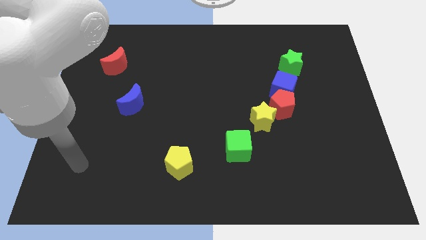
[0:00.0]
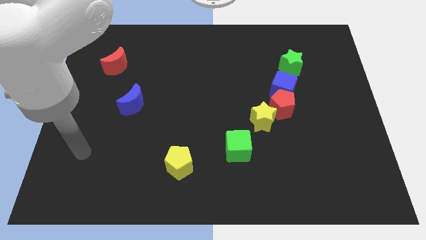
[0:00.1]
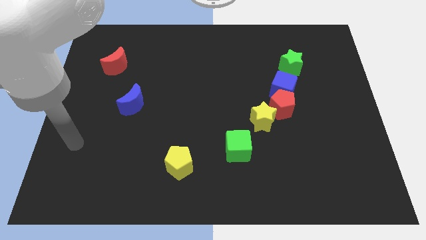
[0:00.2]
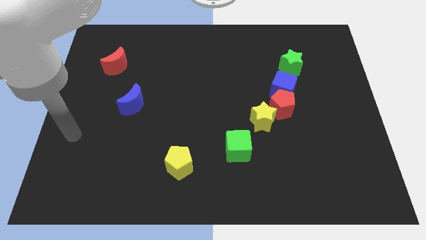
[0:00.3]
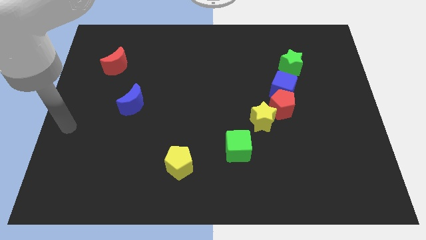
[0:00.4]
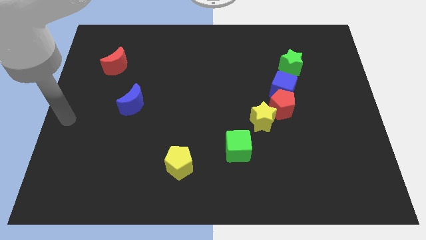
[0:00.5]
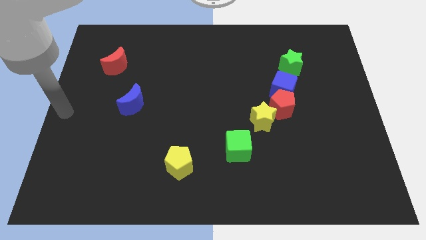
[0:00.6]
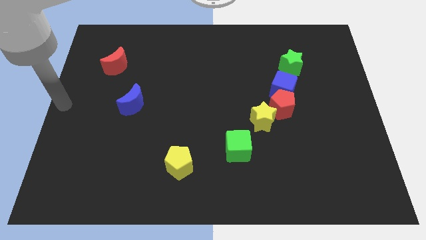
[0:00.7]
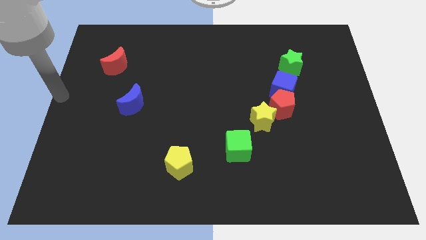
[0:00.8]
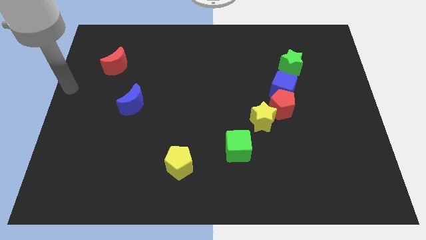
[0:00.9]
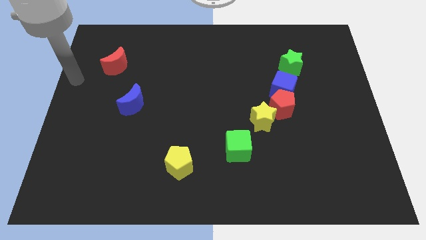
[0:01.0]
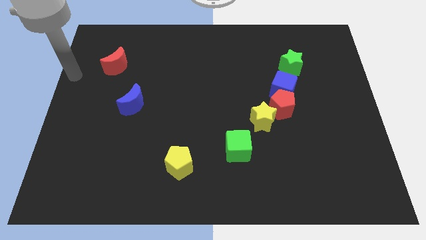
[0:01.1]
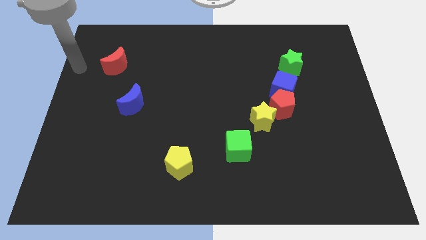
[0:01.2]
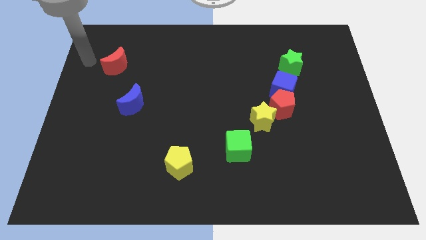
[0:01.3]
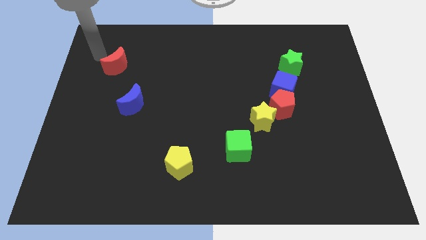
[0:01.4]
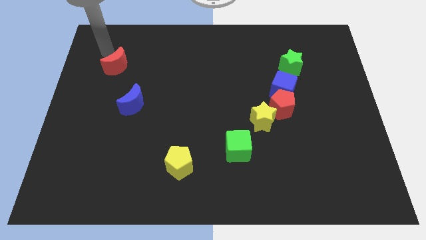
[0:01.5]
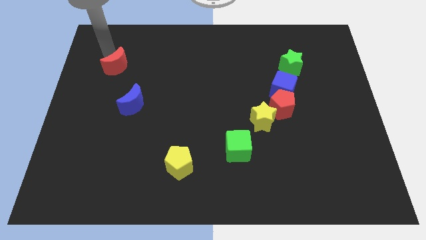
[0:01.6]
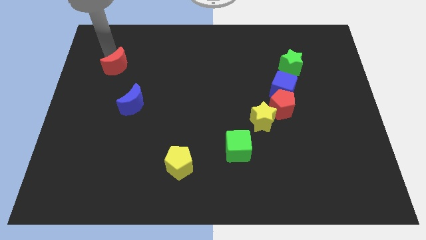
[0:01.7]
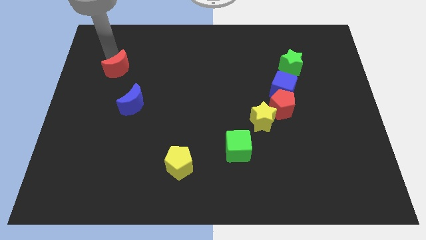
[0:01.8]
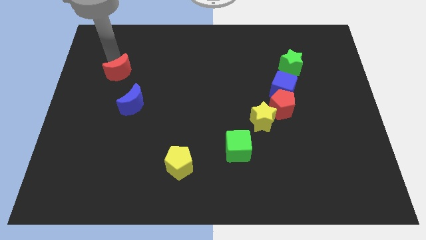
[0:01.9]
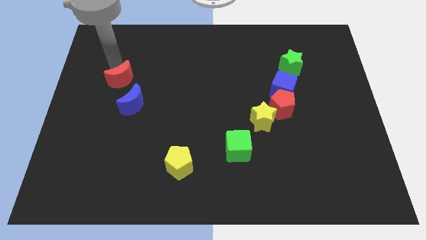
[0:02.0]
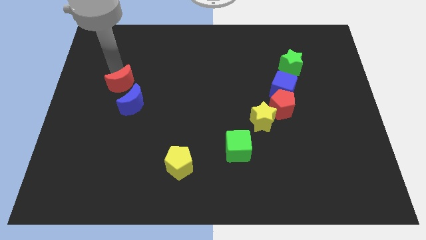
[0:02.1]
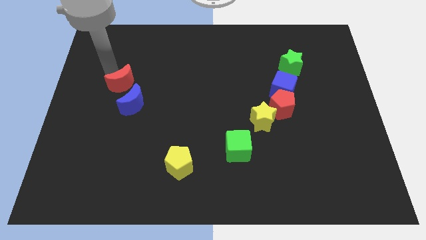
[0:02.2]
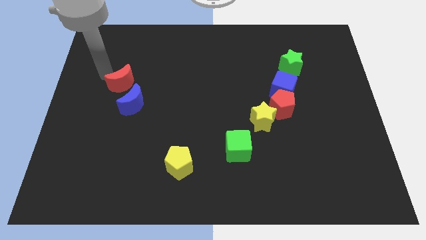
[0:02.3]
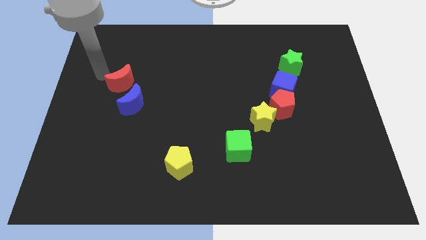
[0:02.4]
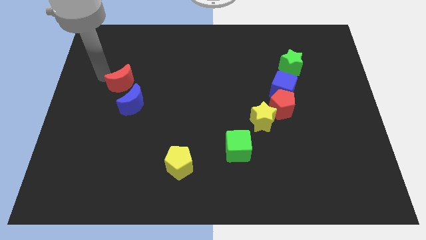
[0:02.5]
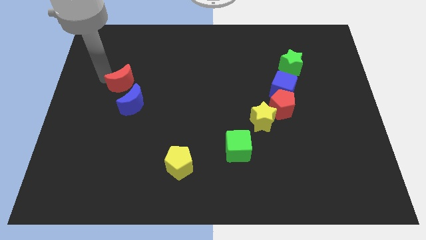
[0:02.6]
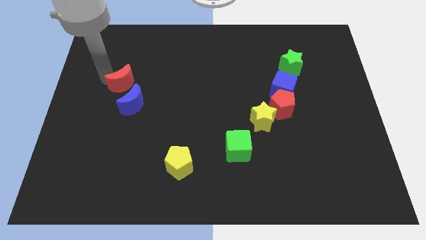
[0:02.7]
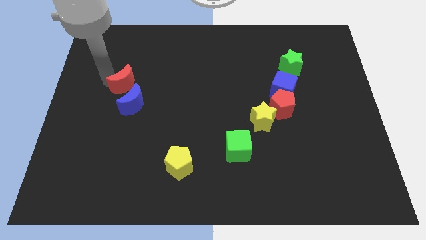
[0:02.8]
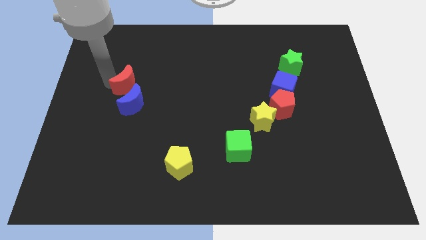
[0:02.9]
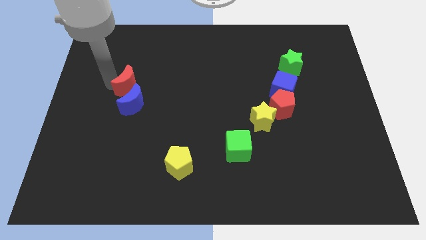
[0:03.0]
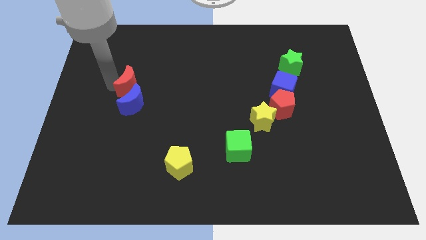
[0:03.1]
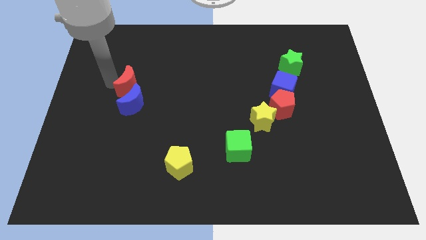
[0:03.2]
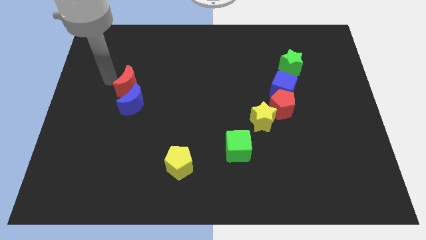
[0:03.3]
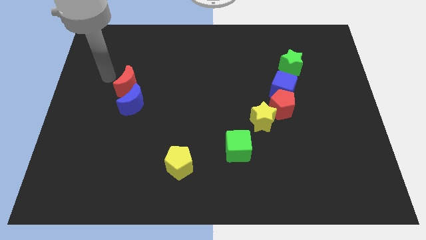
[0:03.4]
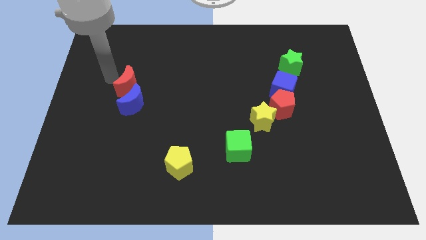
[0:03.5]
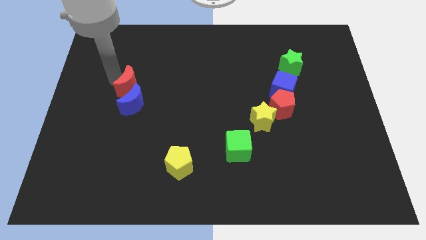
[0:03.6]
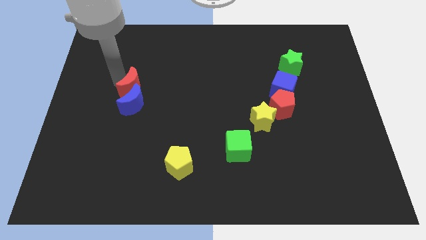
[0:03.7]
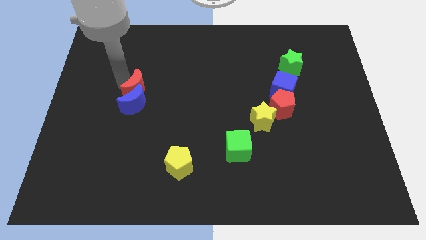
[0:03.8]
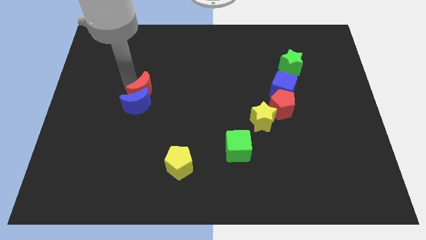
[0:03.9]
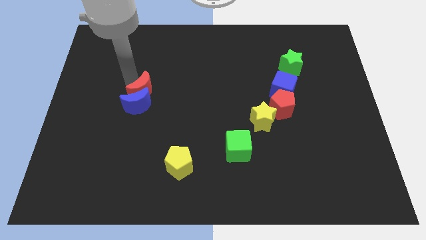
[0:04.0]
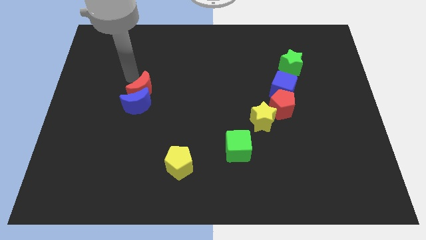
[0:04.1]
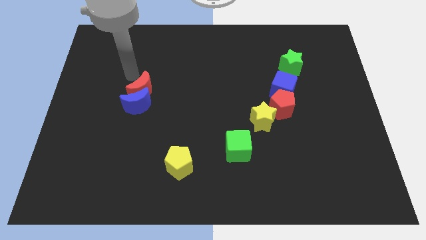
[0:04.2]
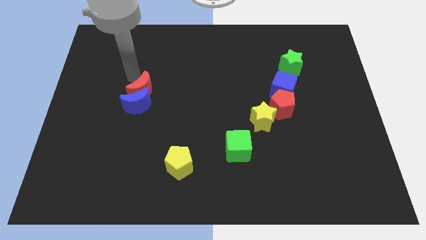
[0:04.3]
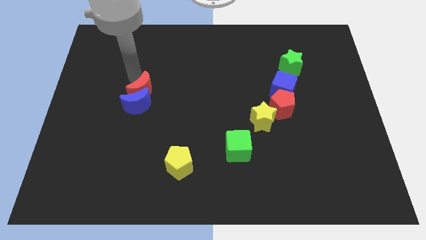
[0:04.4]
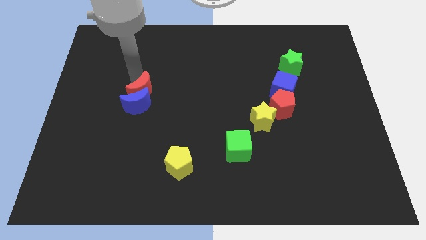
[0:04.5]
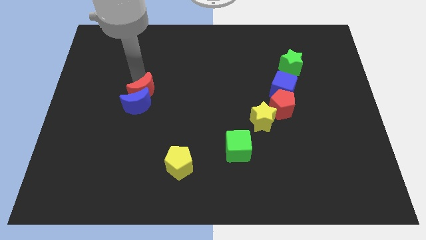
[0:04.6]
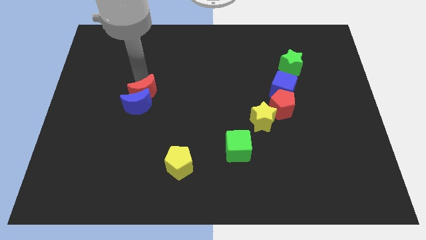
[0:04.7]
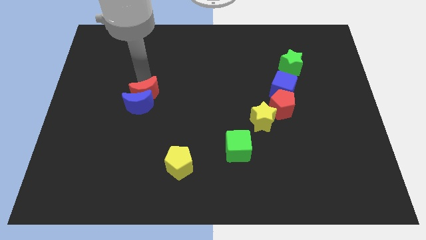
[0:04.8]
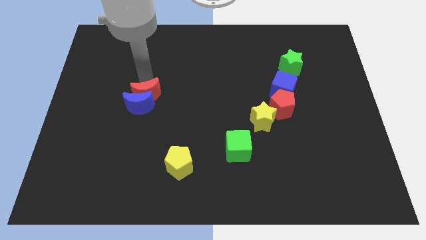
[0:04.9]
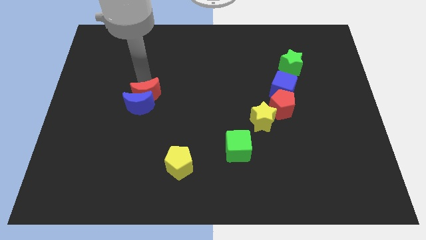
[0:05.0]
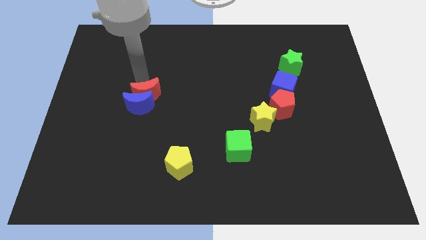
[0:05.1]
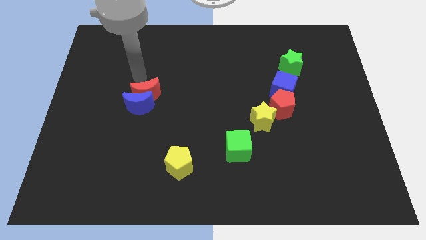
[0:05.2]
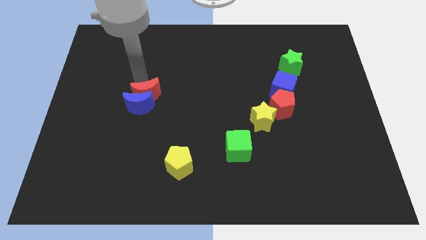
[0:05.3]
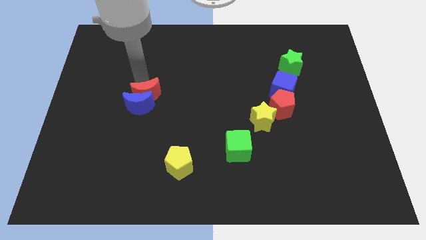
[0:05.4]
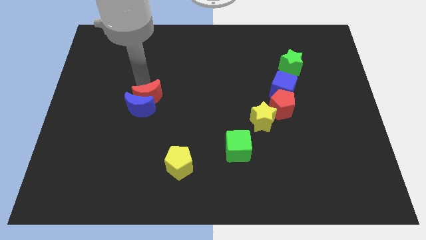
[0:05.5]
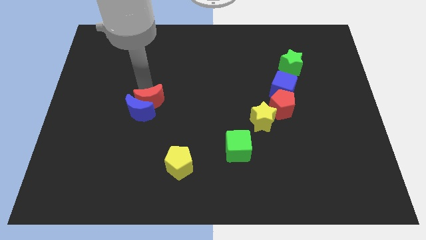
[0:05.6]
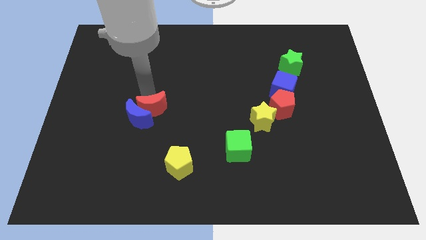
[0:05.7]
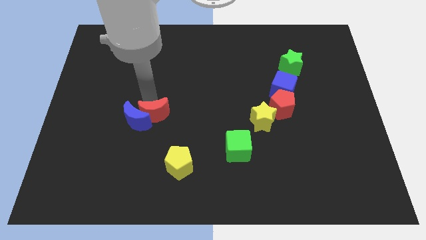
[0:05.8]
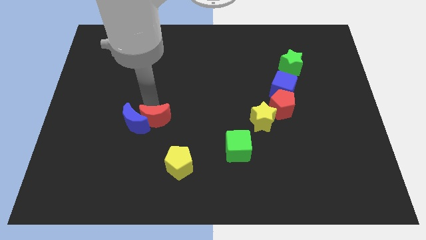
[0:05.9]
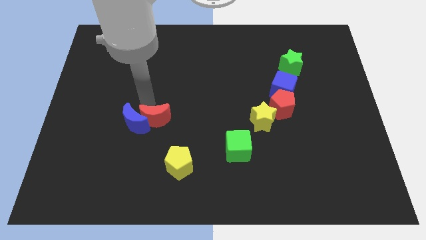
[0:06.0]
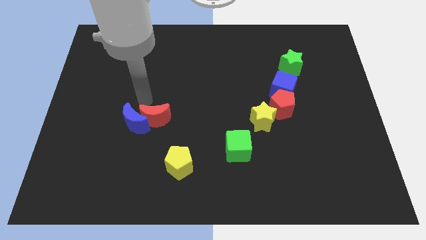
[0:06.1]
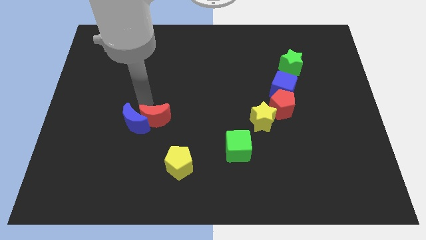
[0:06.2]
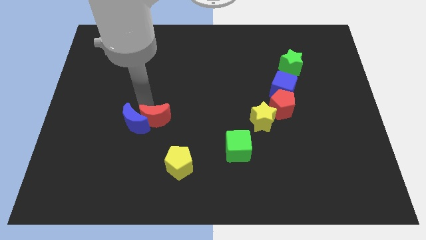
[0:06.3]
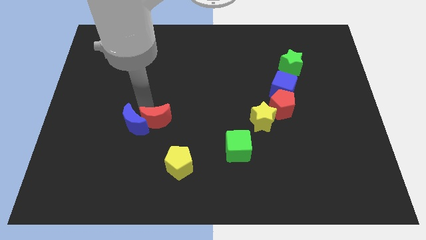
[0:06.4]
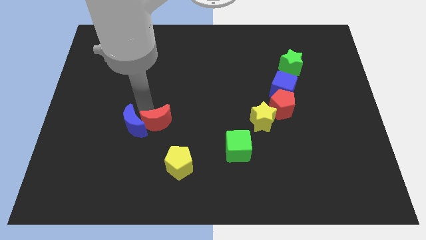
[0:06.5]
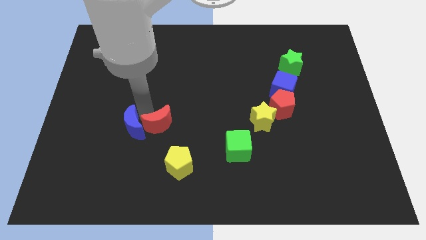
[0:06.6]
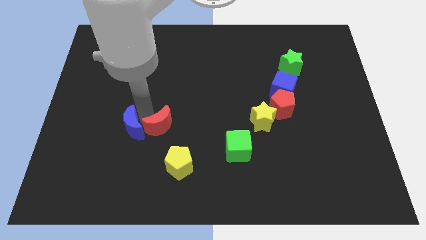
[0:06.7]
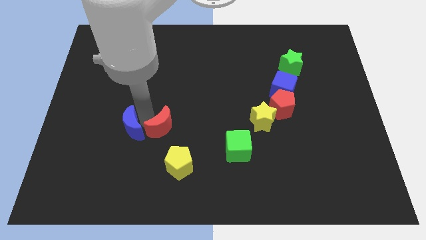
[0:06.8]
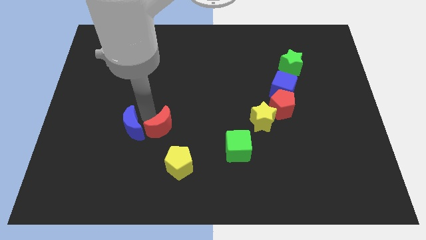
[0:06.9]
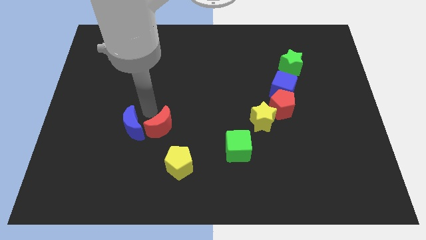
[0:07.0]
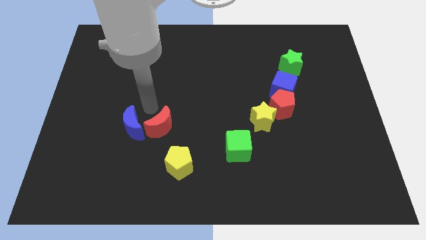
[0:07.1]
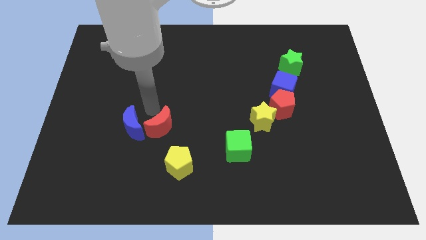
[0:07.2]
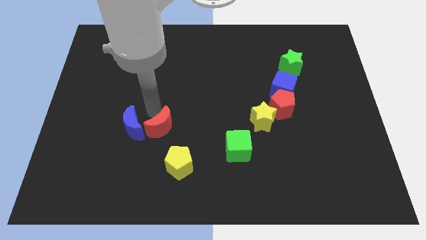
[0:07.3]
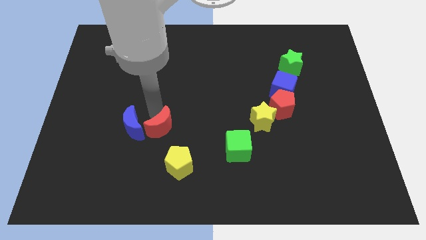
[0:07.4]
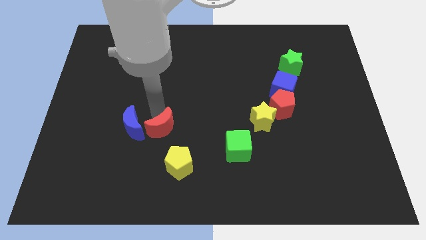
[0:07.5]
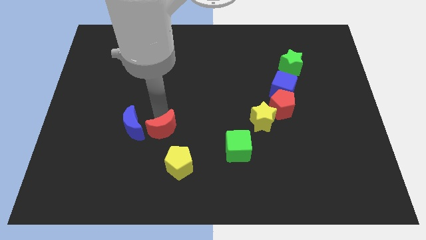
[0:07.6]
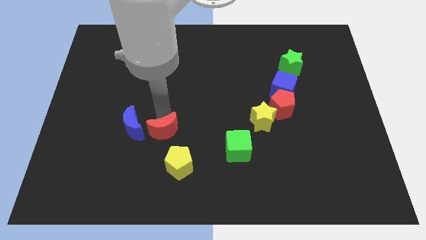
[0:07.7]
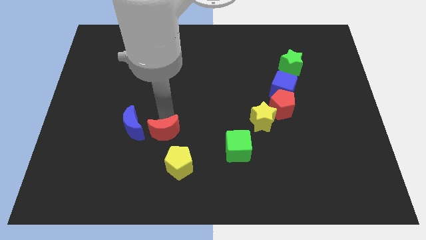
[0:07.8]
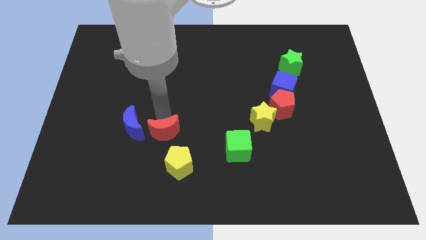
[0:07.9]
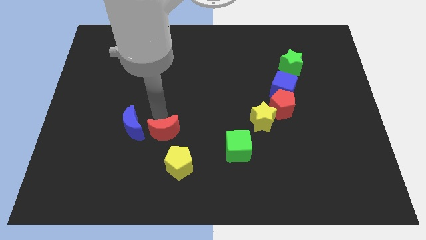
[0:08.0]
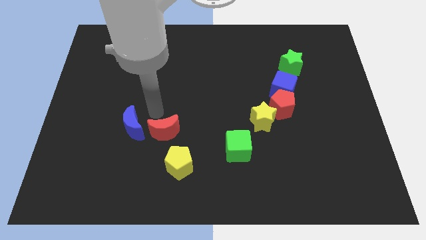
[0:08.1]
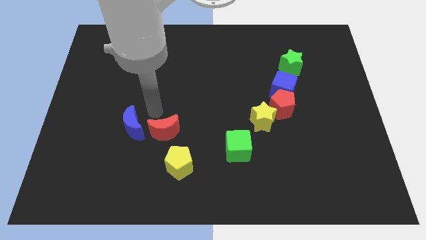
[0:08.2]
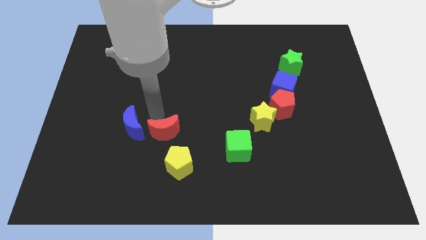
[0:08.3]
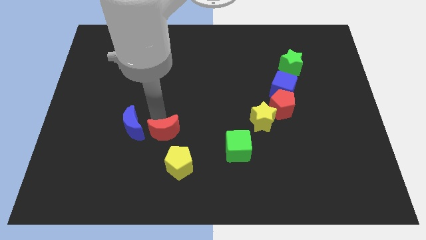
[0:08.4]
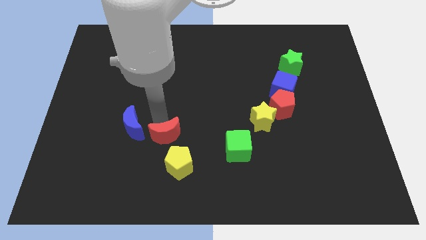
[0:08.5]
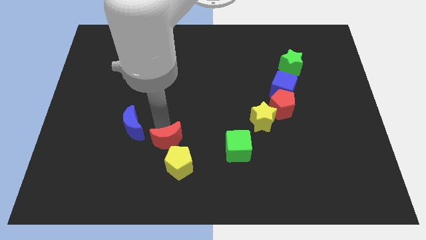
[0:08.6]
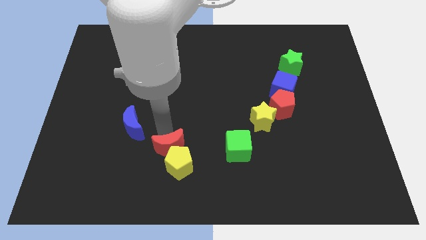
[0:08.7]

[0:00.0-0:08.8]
slide the red moon next to the yellow pentagon
